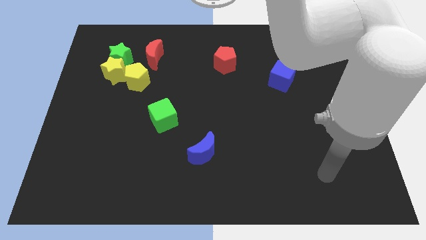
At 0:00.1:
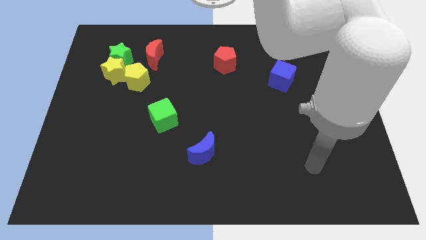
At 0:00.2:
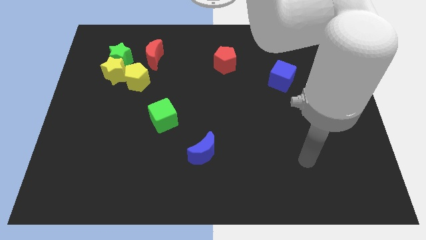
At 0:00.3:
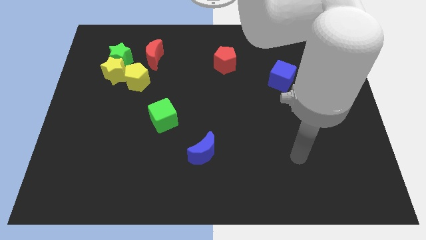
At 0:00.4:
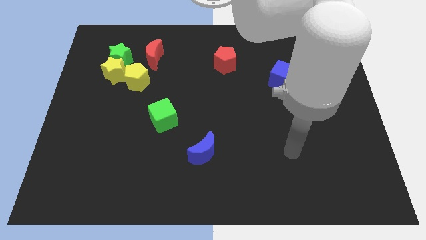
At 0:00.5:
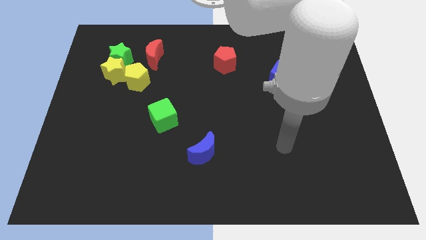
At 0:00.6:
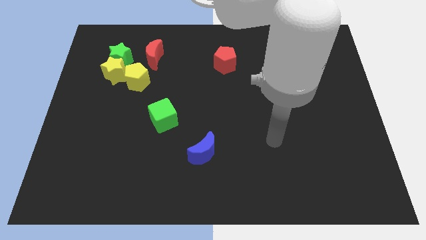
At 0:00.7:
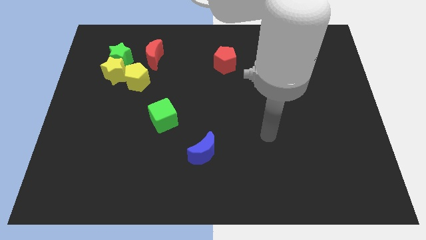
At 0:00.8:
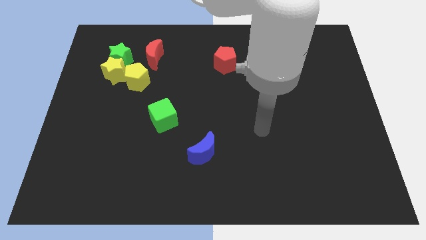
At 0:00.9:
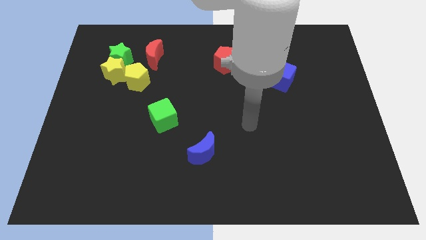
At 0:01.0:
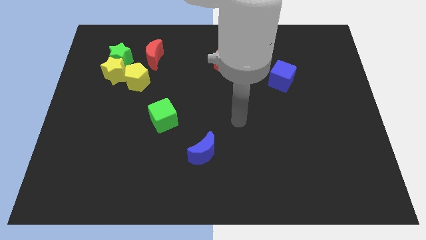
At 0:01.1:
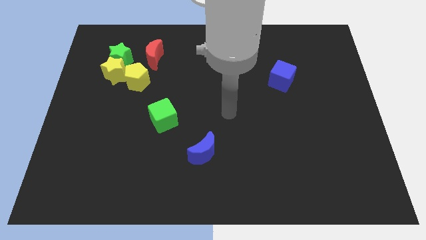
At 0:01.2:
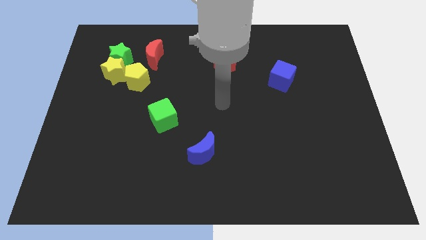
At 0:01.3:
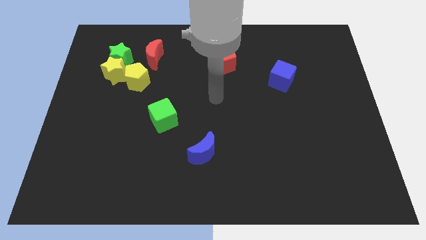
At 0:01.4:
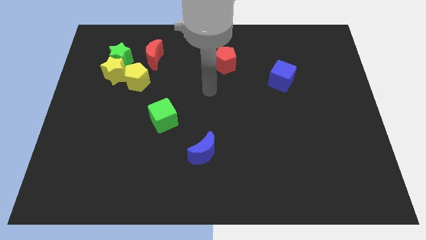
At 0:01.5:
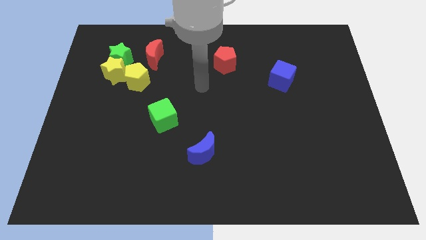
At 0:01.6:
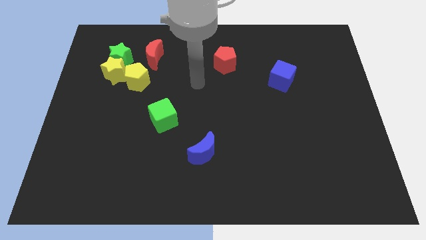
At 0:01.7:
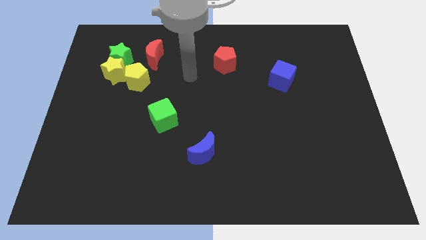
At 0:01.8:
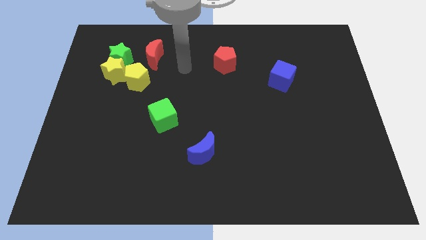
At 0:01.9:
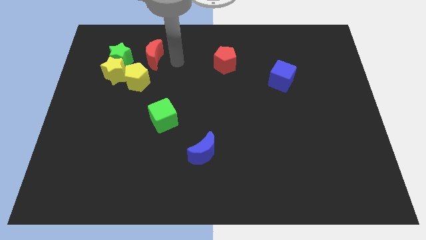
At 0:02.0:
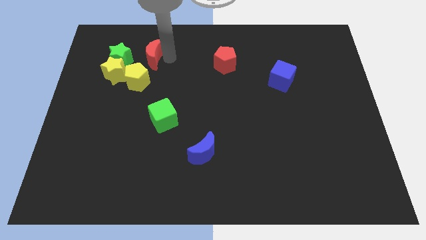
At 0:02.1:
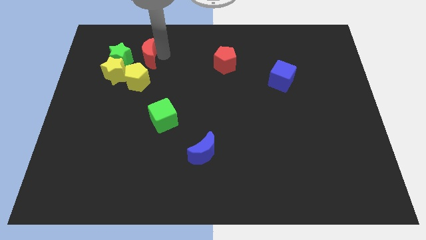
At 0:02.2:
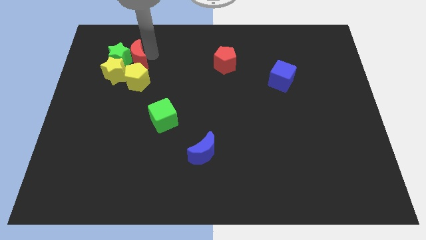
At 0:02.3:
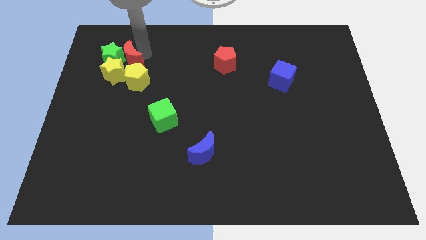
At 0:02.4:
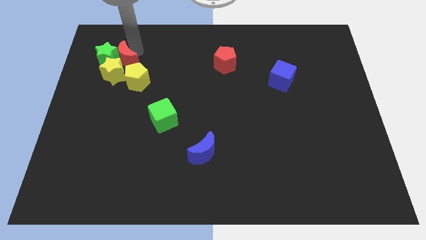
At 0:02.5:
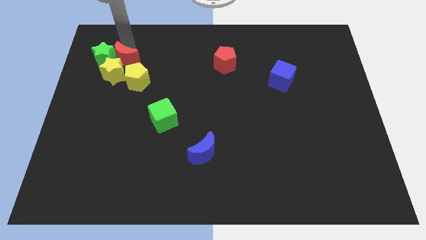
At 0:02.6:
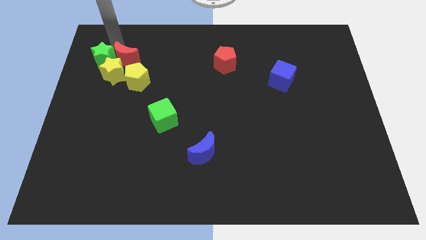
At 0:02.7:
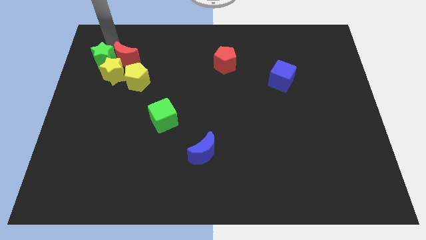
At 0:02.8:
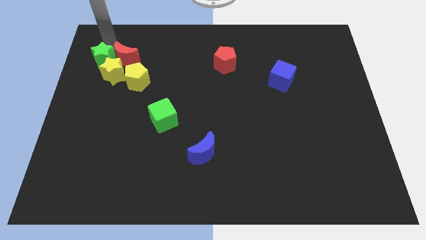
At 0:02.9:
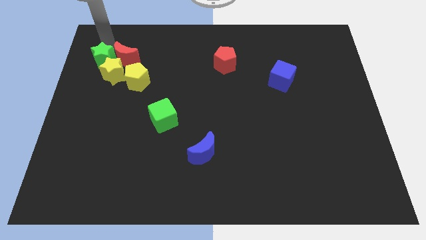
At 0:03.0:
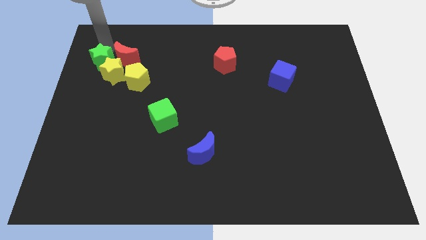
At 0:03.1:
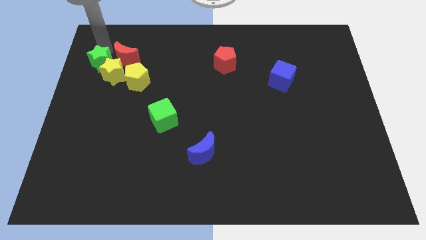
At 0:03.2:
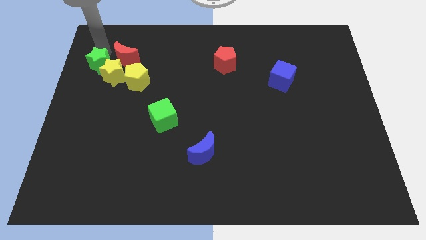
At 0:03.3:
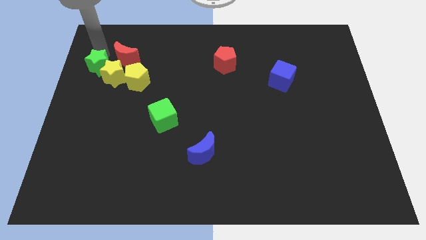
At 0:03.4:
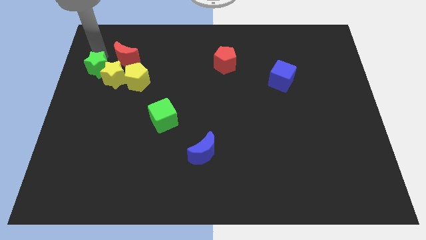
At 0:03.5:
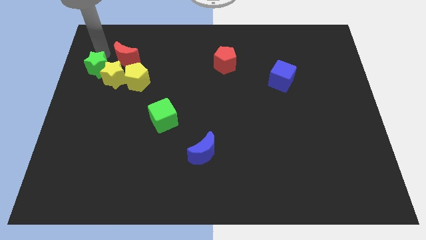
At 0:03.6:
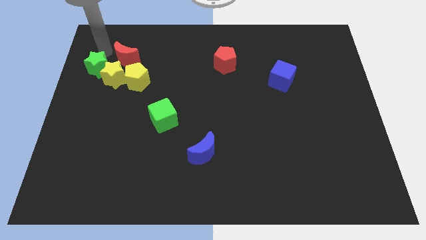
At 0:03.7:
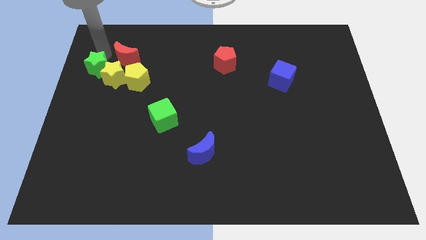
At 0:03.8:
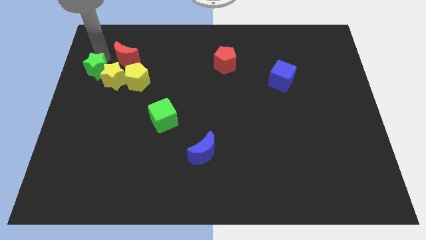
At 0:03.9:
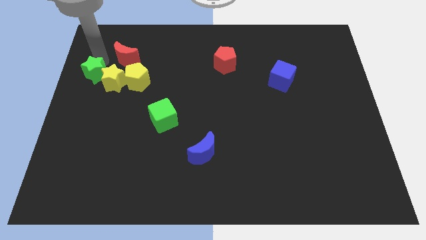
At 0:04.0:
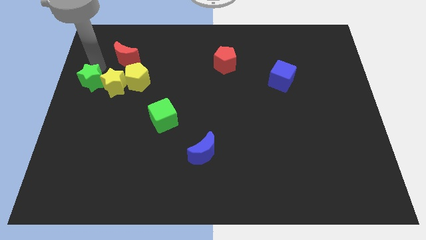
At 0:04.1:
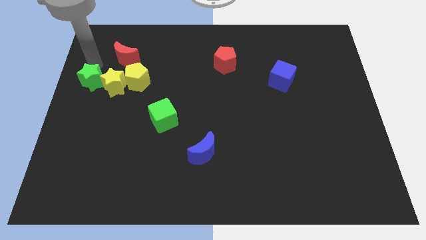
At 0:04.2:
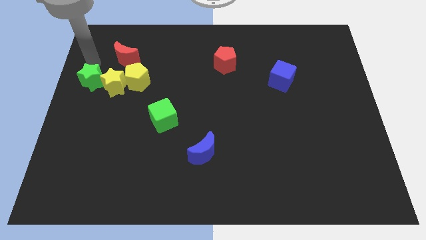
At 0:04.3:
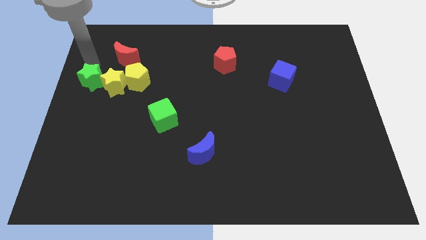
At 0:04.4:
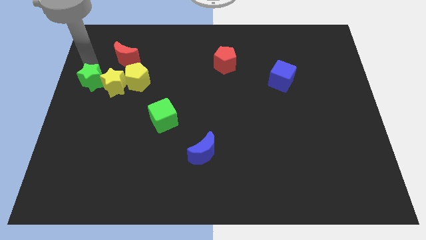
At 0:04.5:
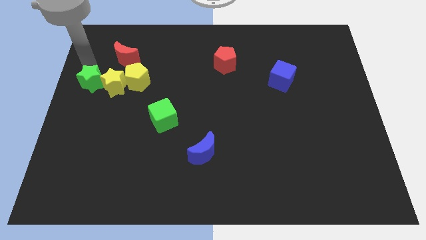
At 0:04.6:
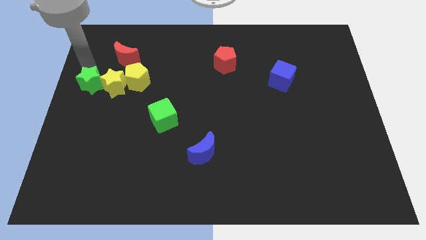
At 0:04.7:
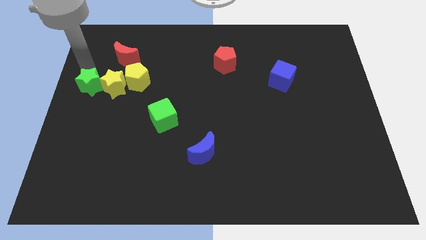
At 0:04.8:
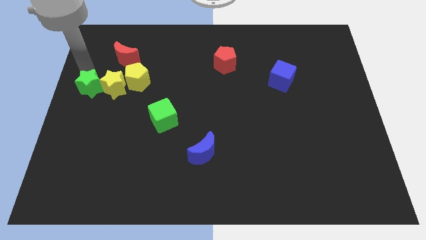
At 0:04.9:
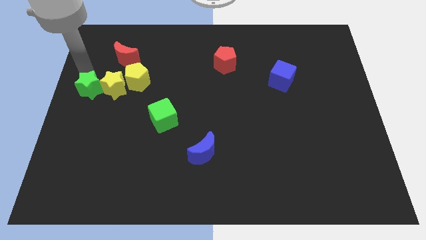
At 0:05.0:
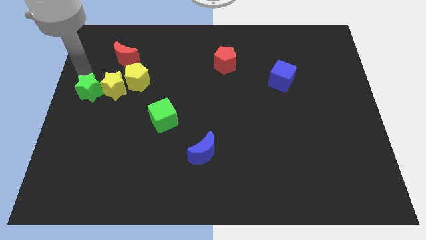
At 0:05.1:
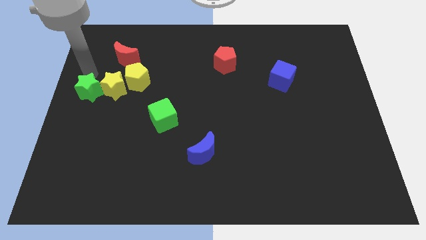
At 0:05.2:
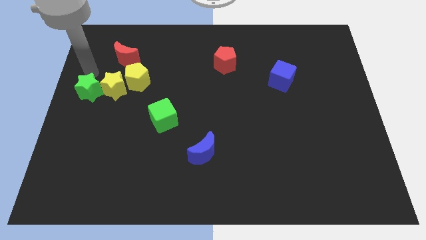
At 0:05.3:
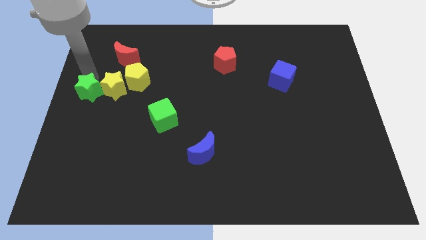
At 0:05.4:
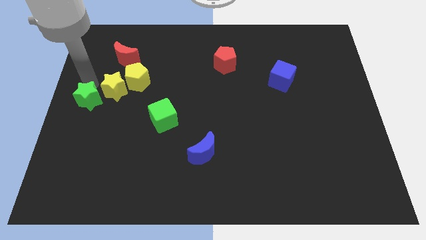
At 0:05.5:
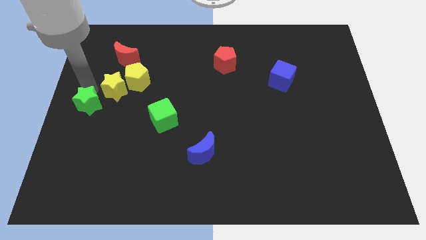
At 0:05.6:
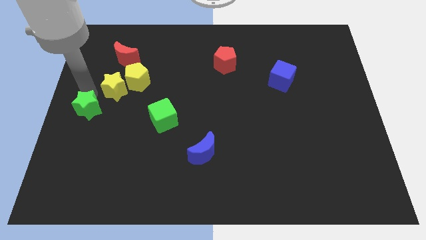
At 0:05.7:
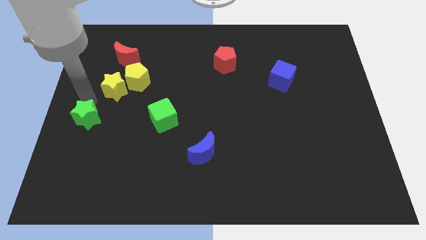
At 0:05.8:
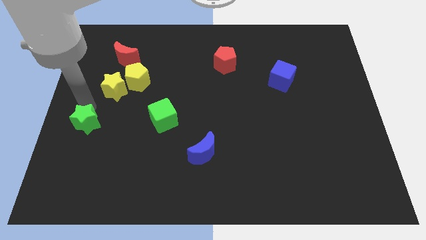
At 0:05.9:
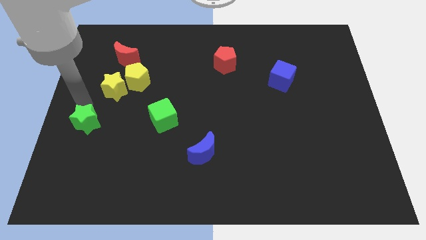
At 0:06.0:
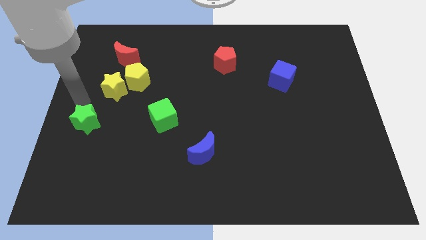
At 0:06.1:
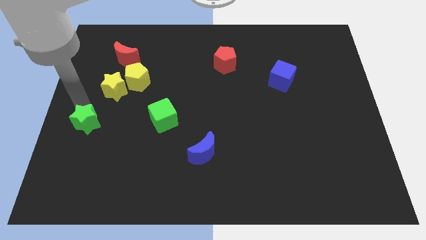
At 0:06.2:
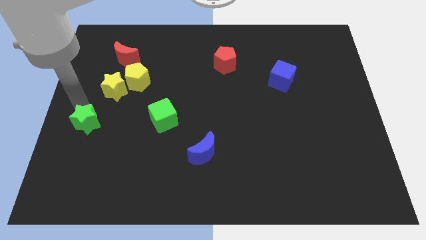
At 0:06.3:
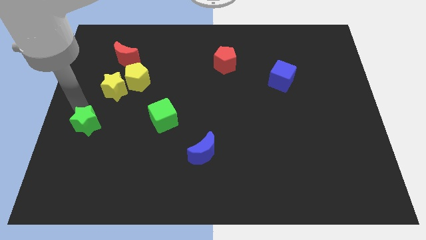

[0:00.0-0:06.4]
slide the green star down

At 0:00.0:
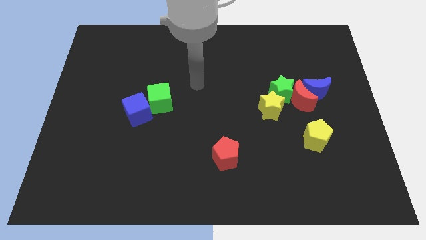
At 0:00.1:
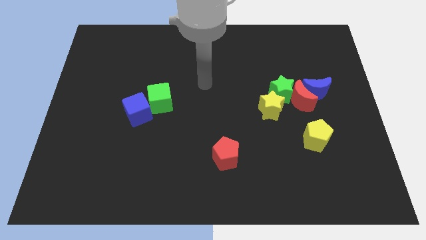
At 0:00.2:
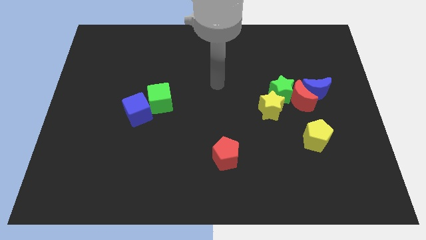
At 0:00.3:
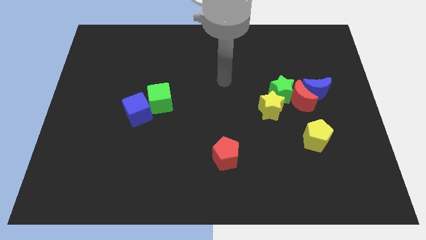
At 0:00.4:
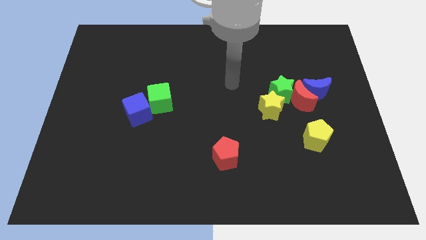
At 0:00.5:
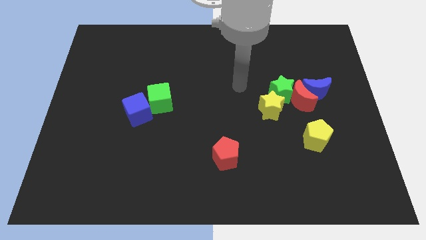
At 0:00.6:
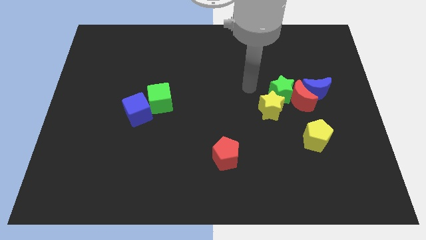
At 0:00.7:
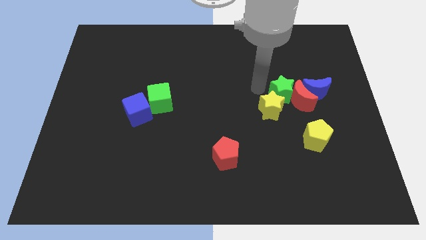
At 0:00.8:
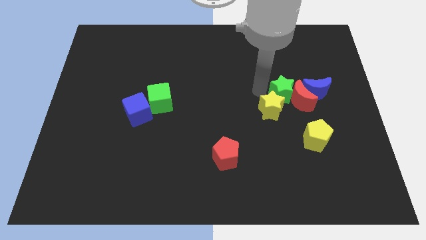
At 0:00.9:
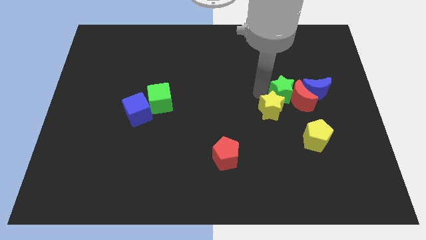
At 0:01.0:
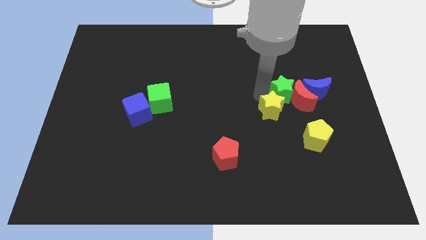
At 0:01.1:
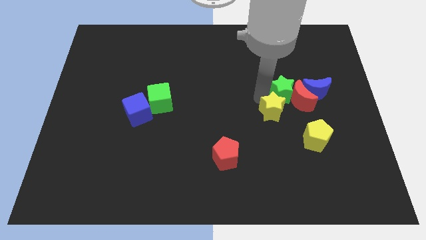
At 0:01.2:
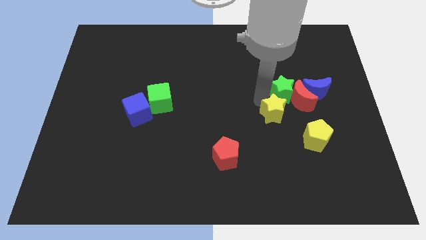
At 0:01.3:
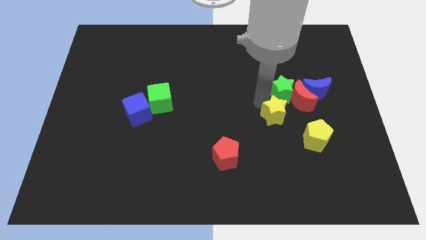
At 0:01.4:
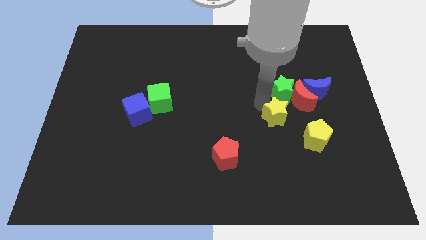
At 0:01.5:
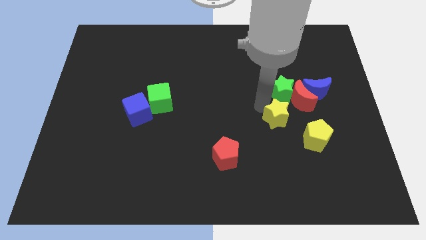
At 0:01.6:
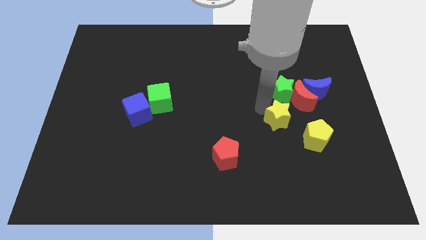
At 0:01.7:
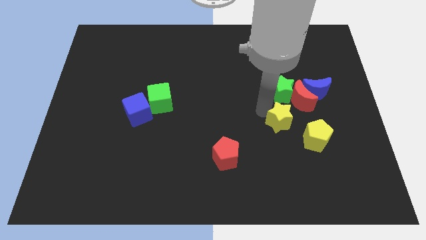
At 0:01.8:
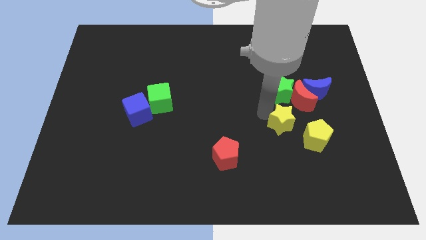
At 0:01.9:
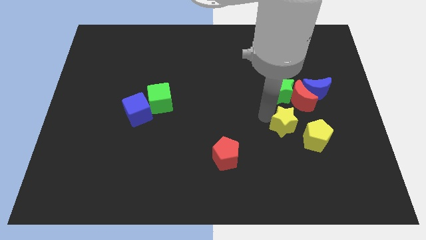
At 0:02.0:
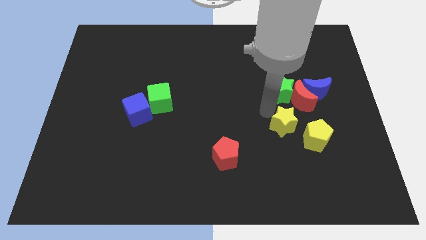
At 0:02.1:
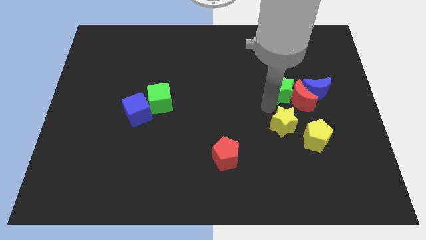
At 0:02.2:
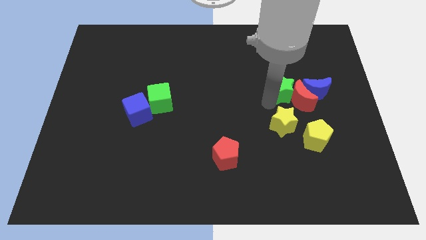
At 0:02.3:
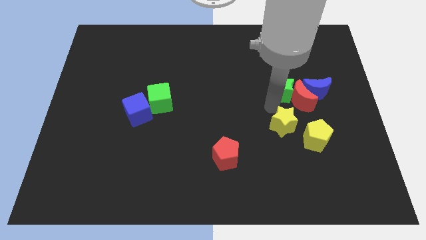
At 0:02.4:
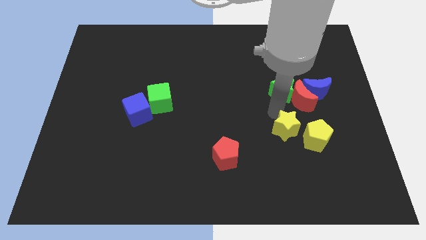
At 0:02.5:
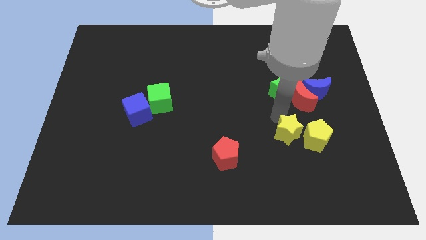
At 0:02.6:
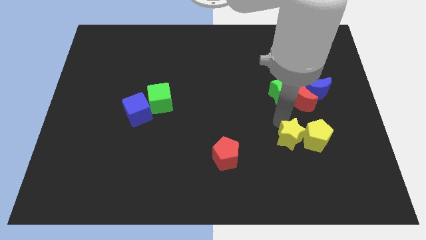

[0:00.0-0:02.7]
move the yellow star down and then right slightly
